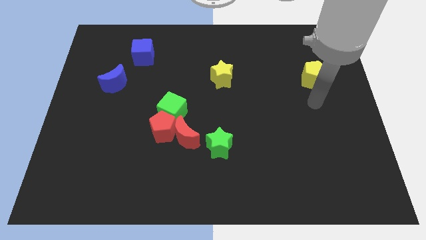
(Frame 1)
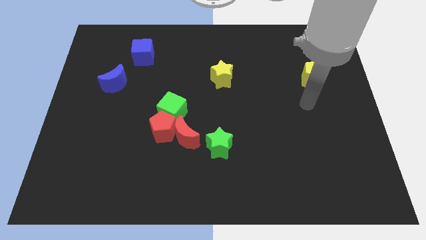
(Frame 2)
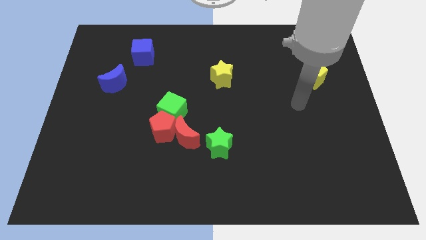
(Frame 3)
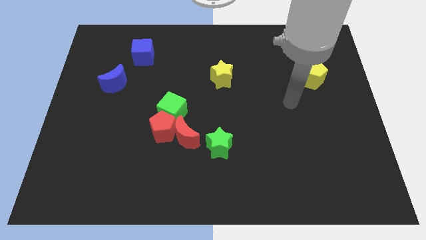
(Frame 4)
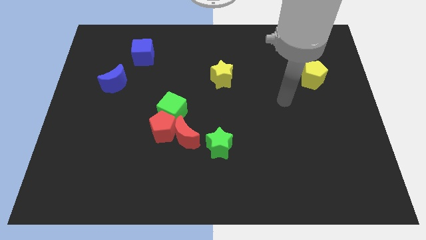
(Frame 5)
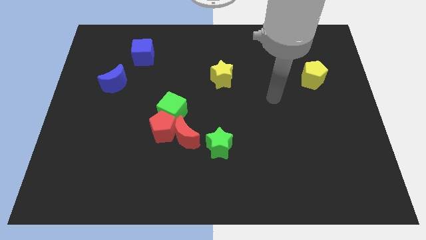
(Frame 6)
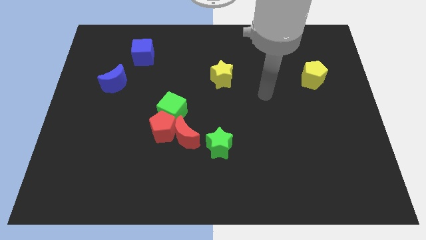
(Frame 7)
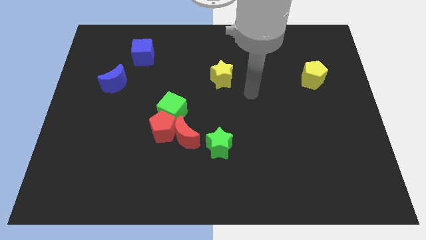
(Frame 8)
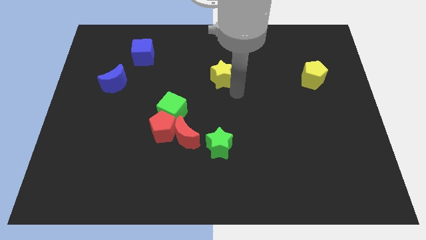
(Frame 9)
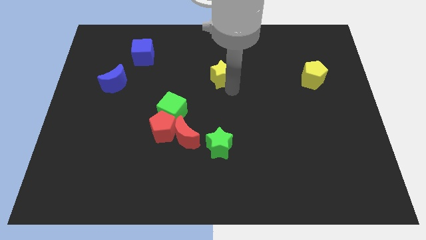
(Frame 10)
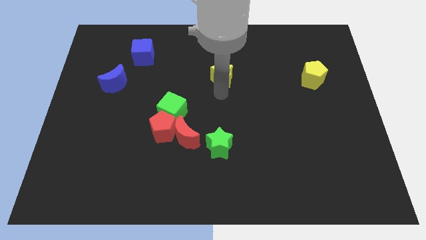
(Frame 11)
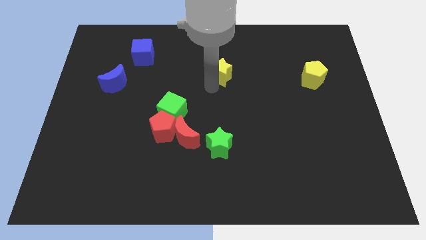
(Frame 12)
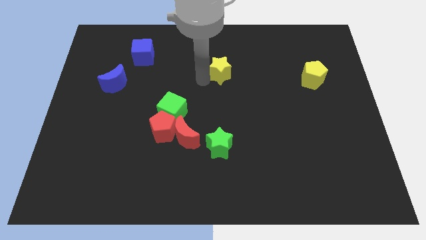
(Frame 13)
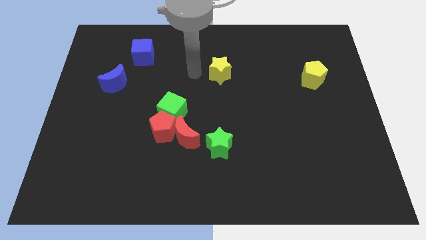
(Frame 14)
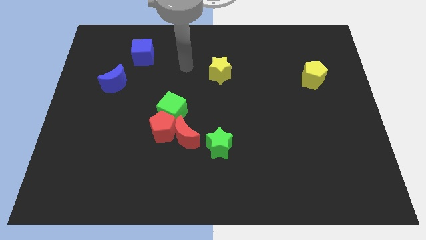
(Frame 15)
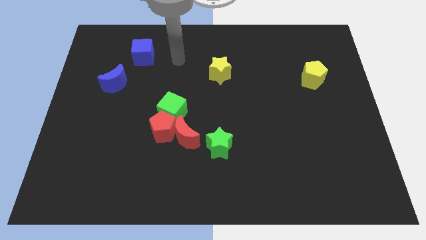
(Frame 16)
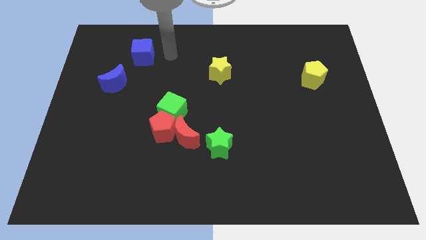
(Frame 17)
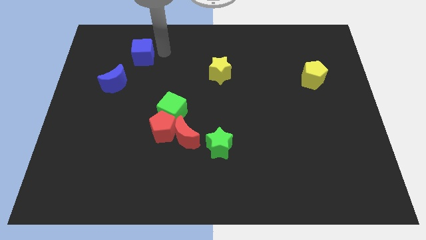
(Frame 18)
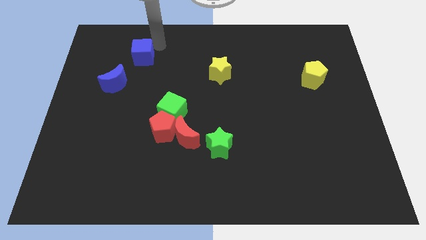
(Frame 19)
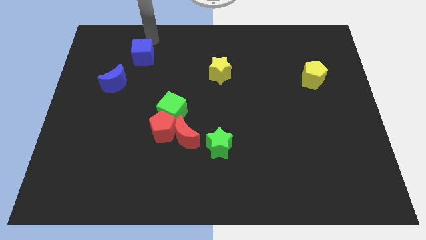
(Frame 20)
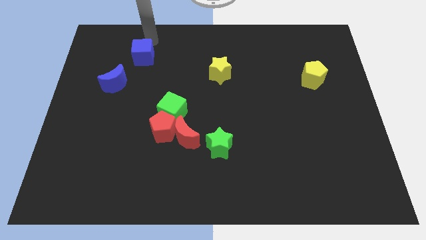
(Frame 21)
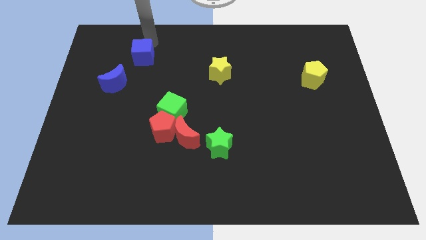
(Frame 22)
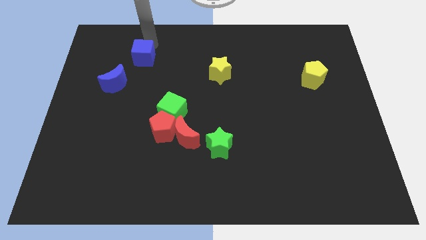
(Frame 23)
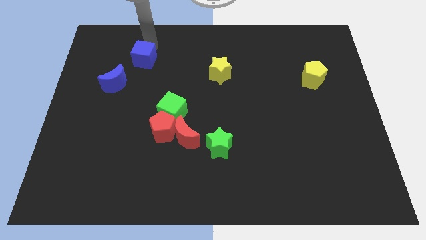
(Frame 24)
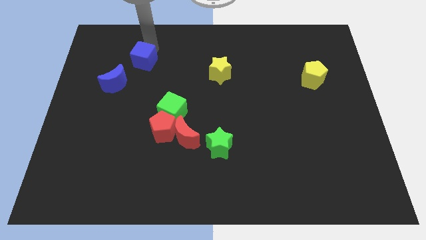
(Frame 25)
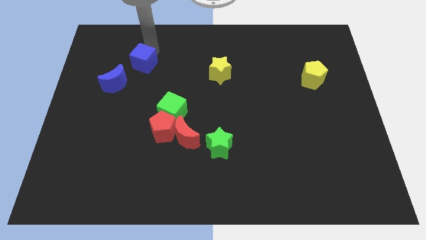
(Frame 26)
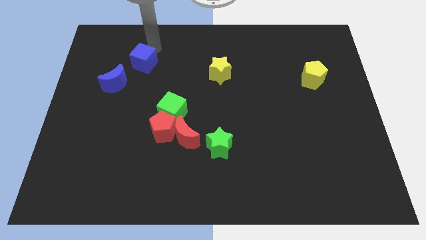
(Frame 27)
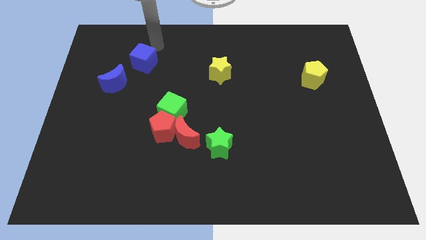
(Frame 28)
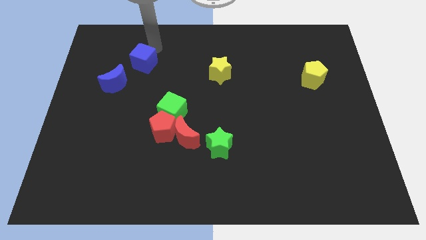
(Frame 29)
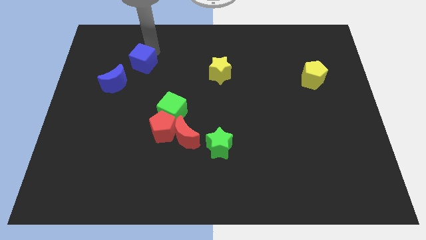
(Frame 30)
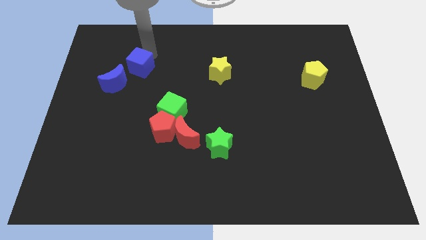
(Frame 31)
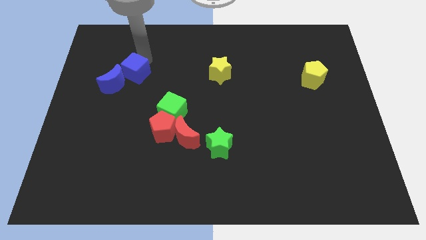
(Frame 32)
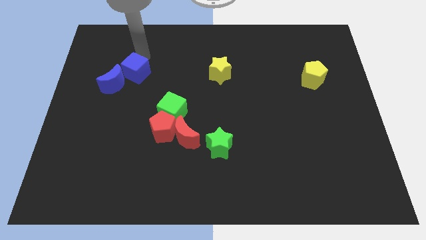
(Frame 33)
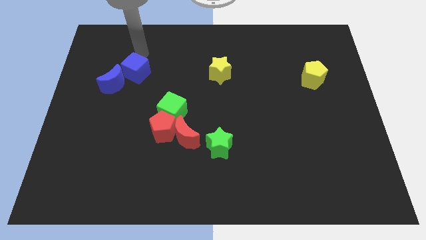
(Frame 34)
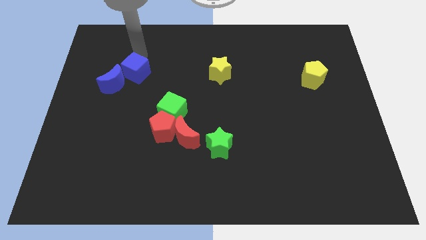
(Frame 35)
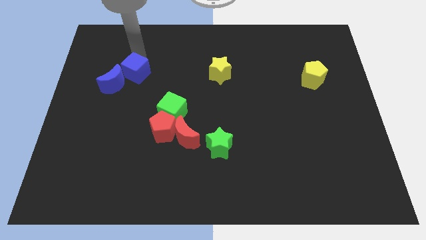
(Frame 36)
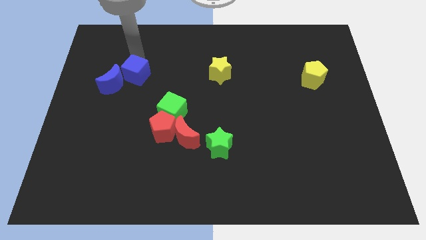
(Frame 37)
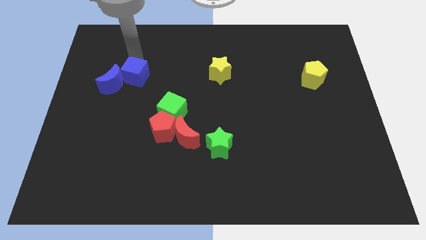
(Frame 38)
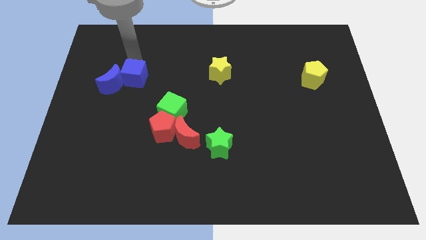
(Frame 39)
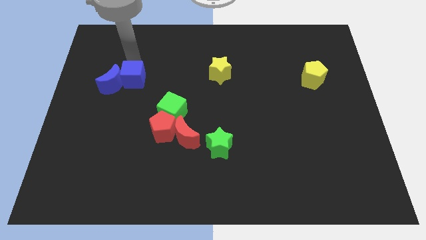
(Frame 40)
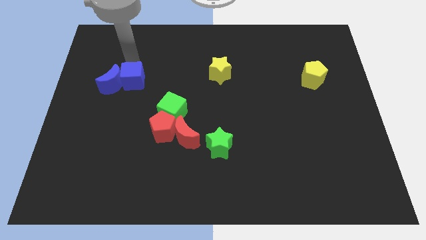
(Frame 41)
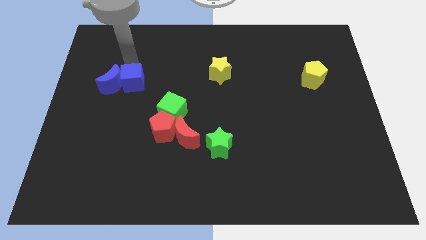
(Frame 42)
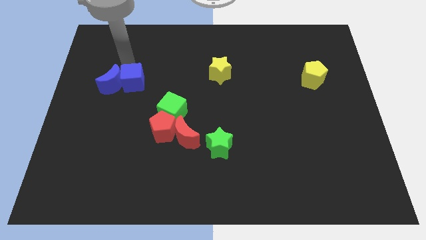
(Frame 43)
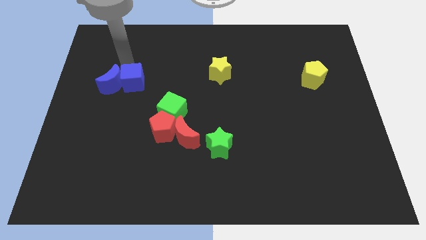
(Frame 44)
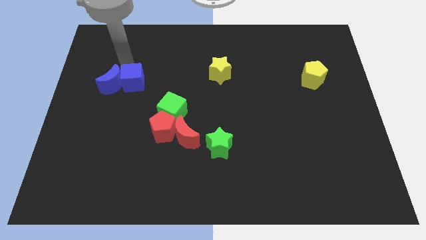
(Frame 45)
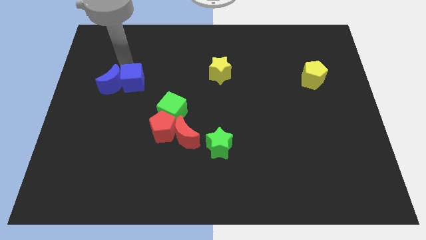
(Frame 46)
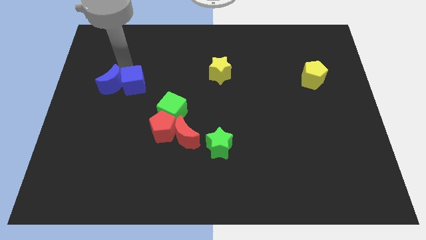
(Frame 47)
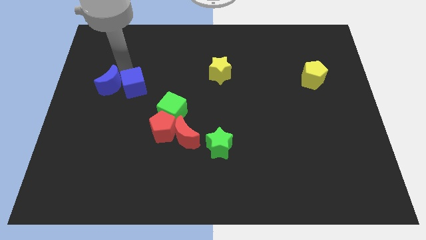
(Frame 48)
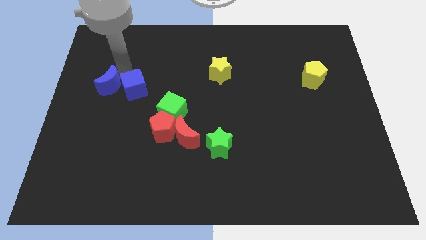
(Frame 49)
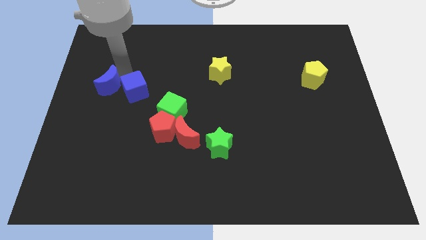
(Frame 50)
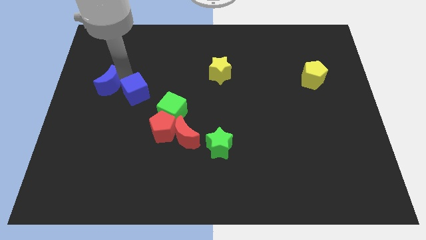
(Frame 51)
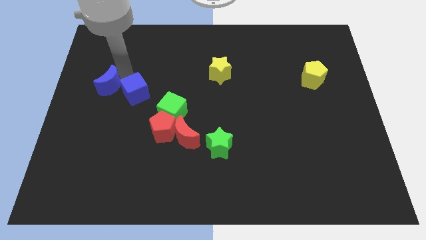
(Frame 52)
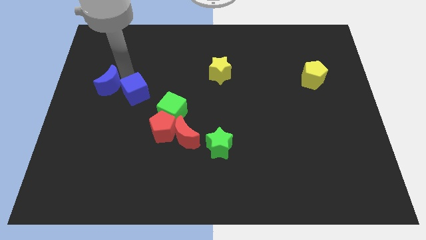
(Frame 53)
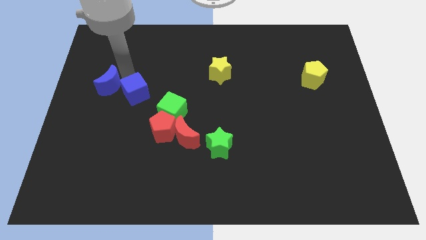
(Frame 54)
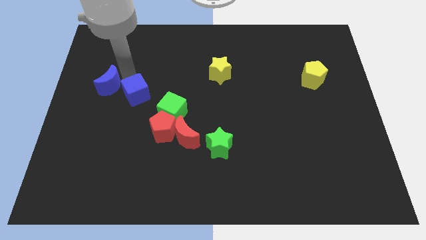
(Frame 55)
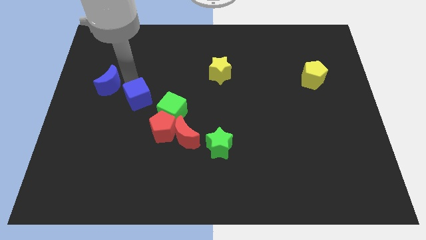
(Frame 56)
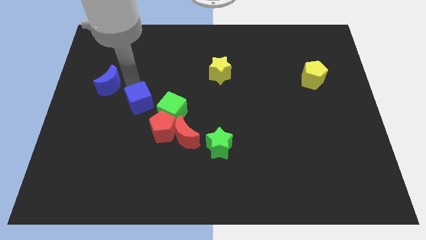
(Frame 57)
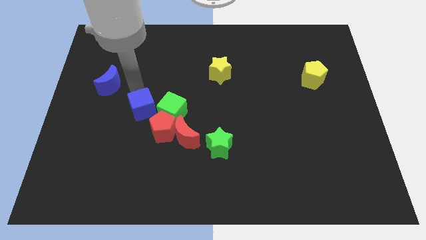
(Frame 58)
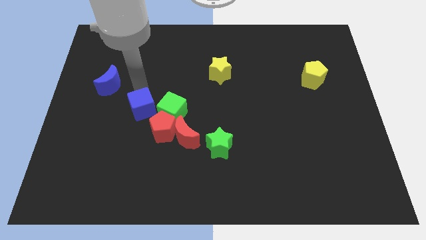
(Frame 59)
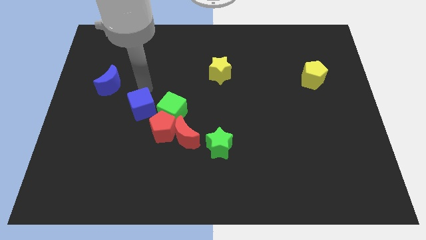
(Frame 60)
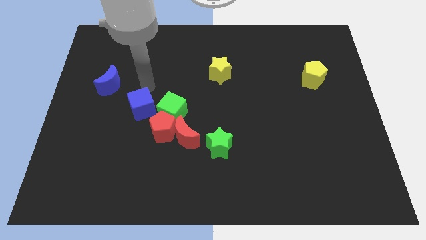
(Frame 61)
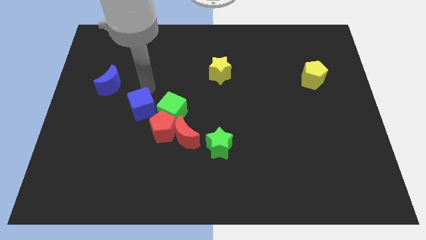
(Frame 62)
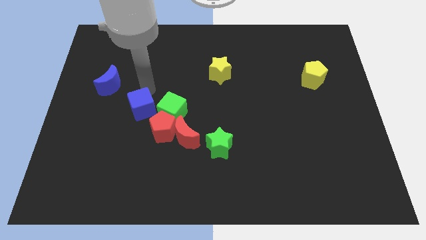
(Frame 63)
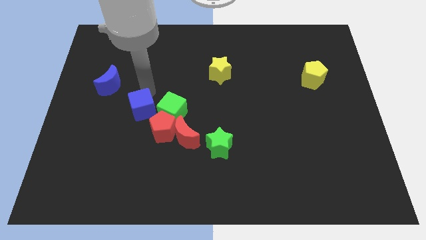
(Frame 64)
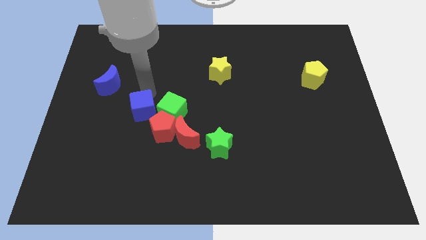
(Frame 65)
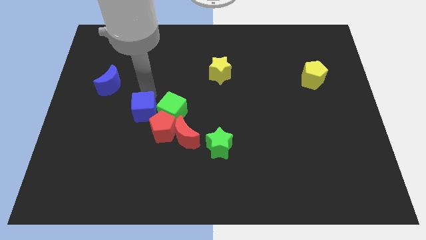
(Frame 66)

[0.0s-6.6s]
push the blue cube to the bottom left of the green cube

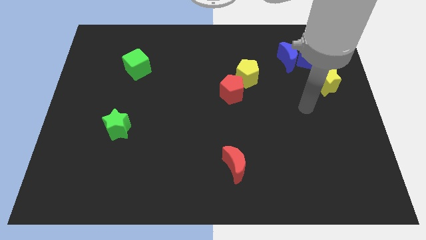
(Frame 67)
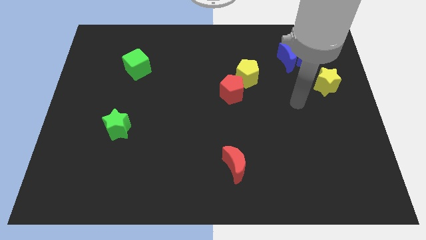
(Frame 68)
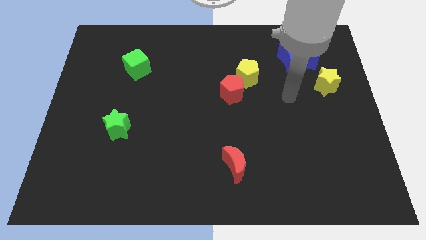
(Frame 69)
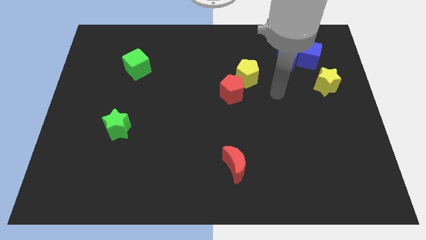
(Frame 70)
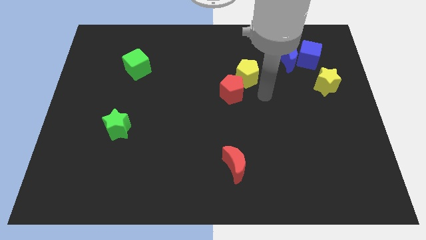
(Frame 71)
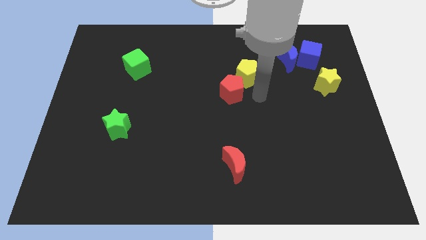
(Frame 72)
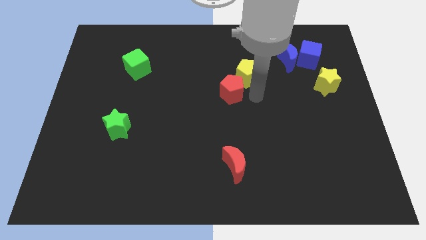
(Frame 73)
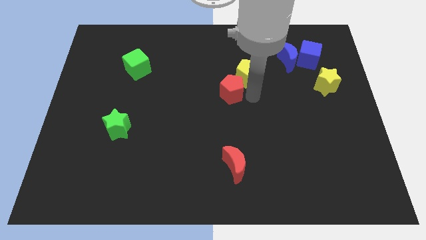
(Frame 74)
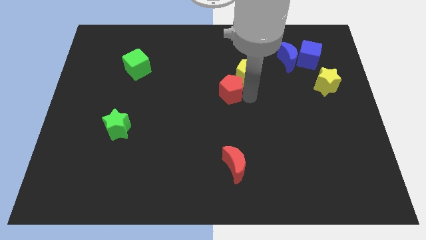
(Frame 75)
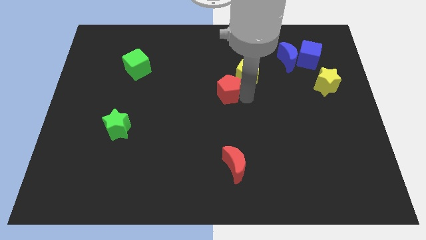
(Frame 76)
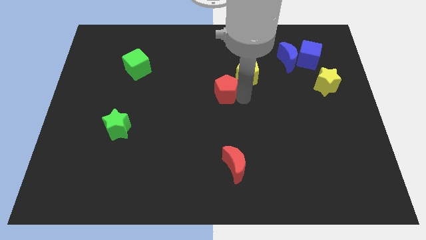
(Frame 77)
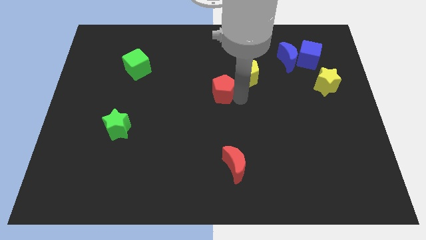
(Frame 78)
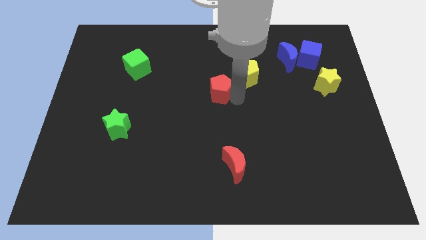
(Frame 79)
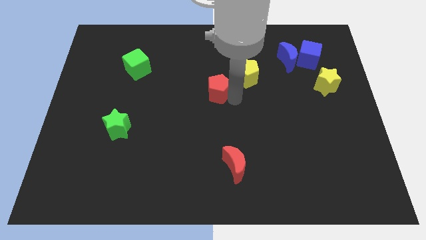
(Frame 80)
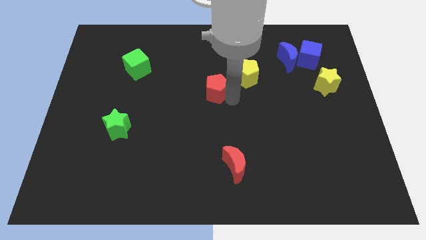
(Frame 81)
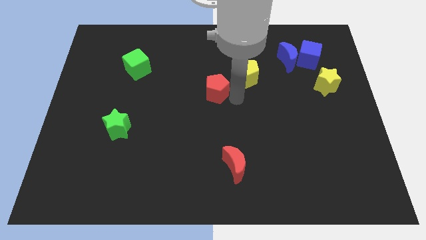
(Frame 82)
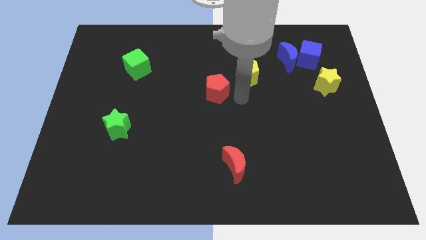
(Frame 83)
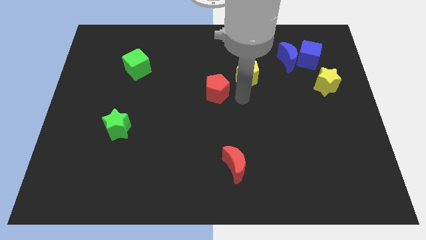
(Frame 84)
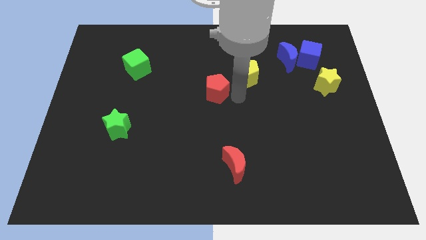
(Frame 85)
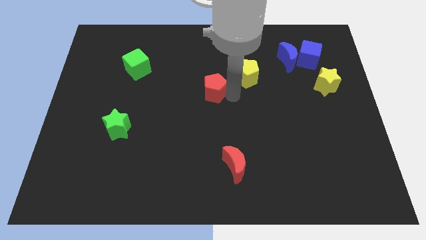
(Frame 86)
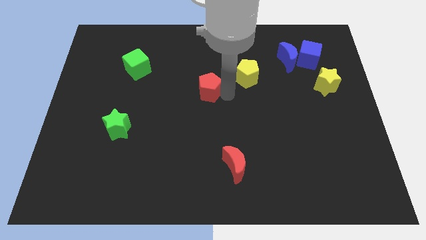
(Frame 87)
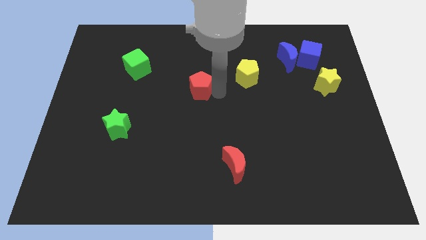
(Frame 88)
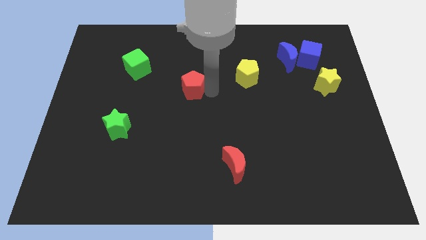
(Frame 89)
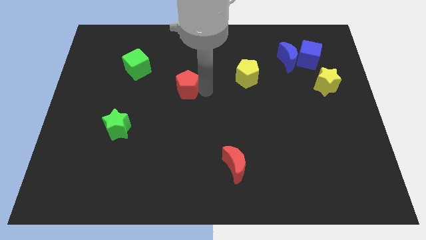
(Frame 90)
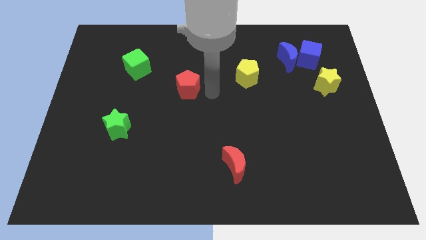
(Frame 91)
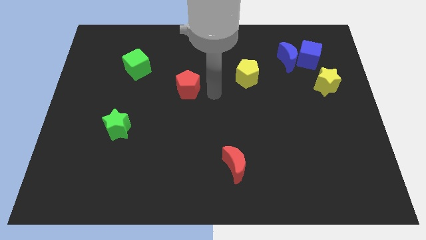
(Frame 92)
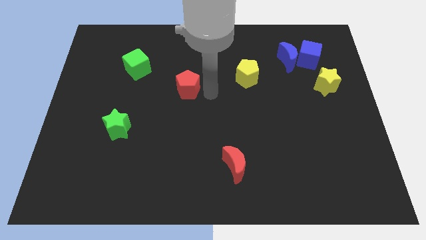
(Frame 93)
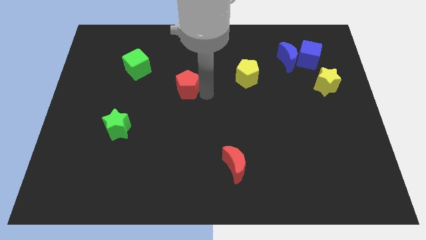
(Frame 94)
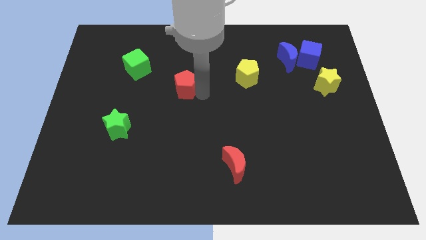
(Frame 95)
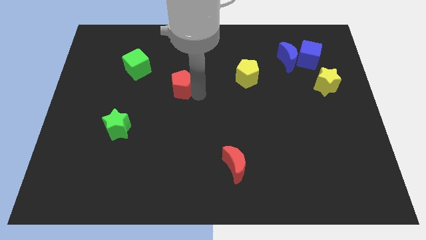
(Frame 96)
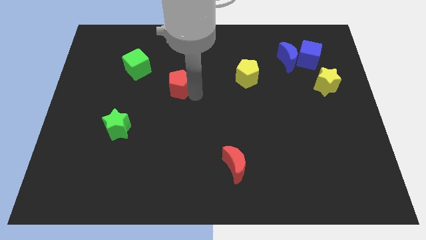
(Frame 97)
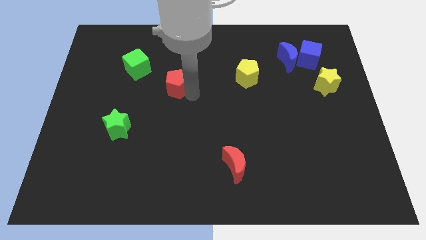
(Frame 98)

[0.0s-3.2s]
move the red pentagon to the bottom right of the green cube
